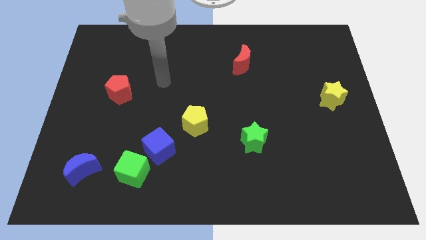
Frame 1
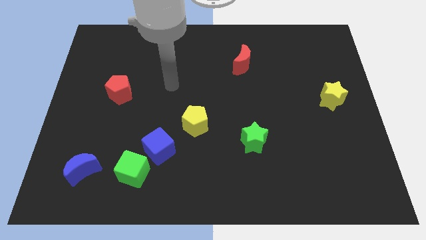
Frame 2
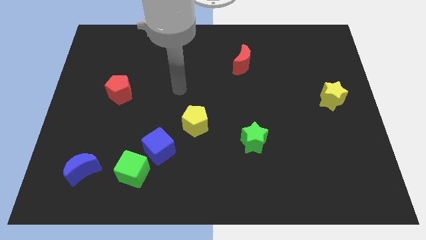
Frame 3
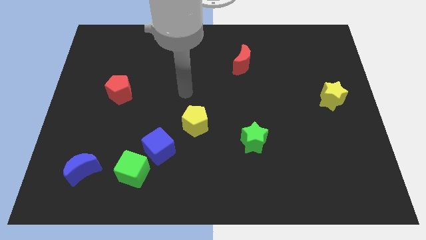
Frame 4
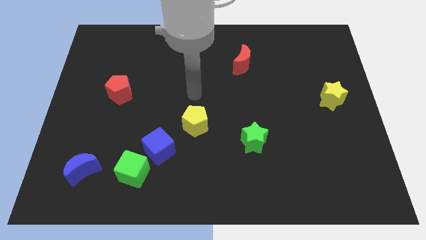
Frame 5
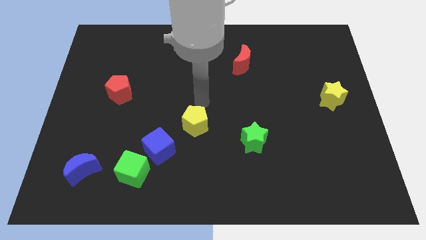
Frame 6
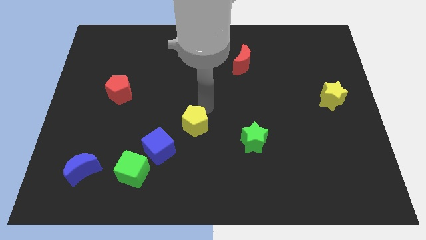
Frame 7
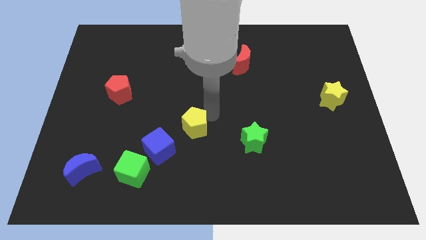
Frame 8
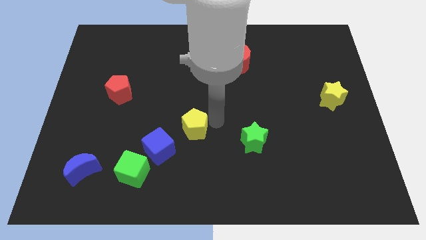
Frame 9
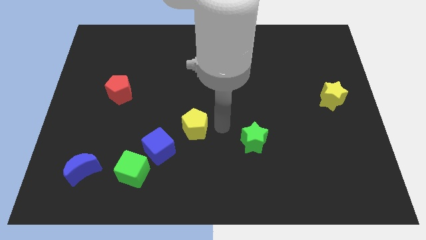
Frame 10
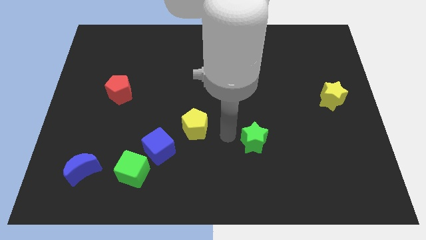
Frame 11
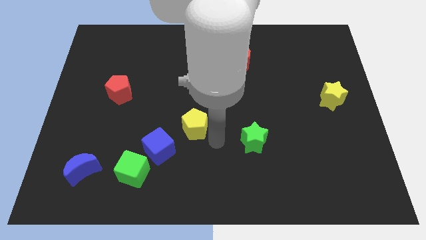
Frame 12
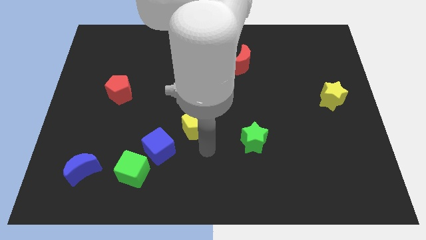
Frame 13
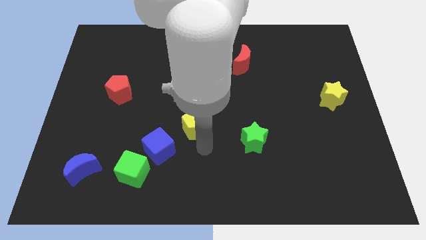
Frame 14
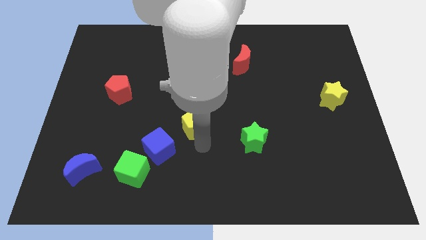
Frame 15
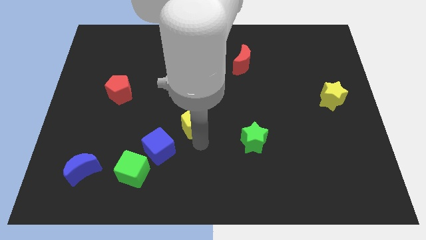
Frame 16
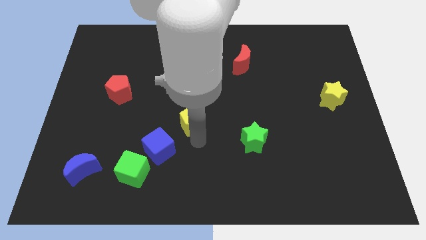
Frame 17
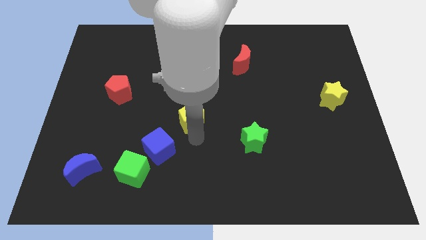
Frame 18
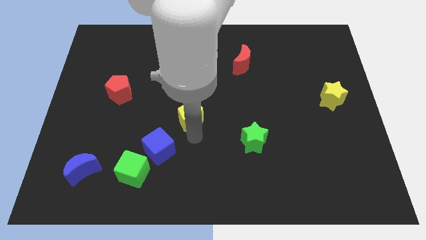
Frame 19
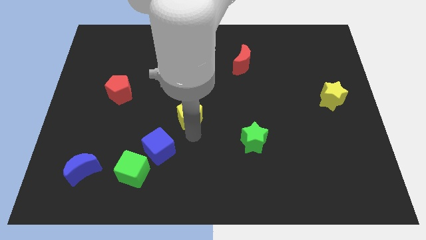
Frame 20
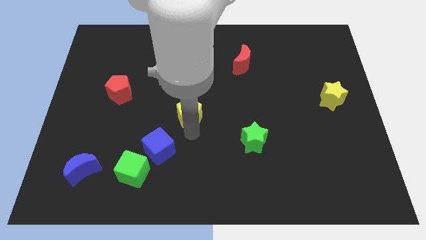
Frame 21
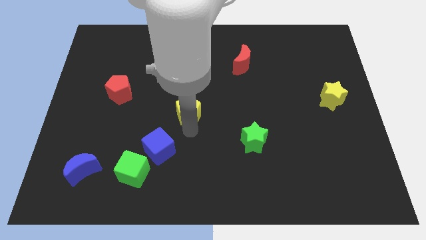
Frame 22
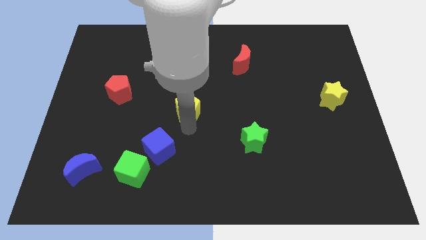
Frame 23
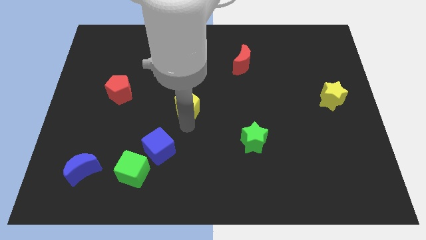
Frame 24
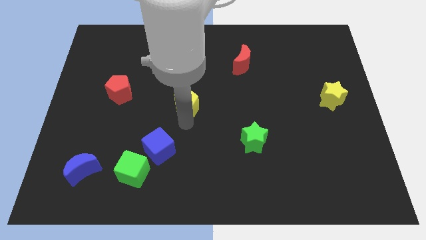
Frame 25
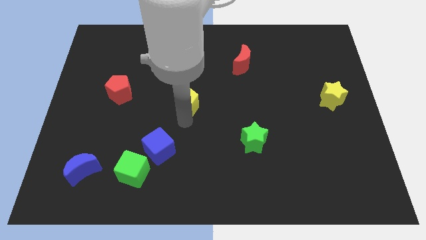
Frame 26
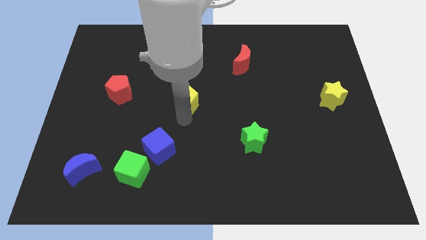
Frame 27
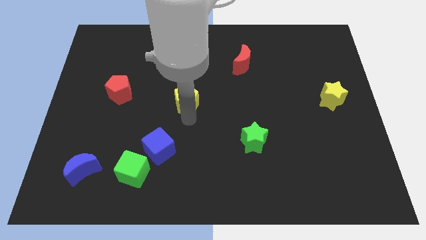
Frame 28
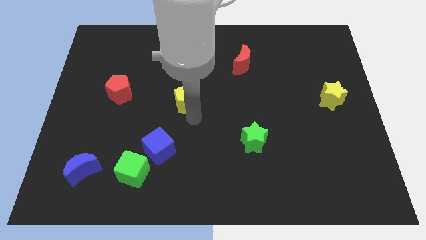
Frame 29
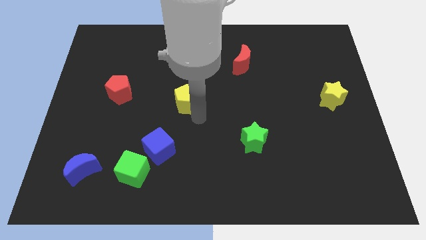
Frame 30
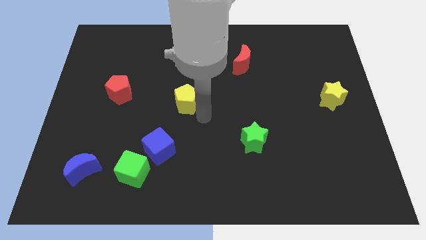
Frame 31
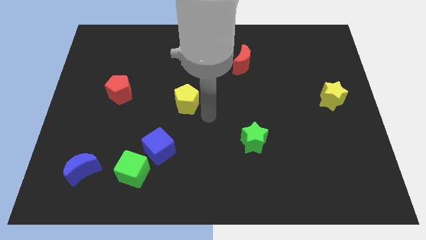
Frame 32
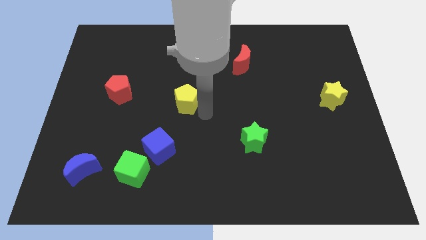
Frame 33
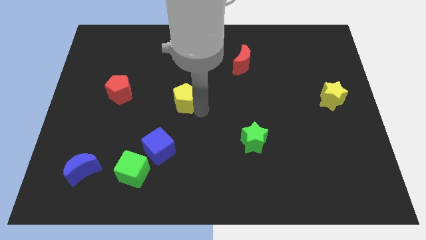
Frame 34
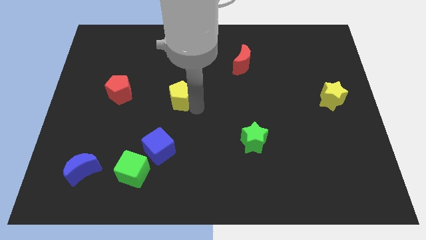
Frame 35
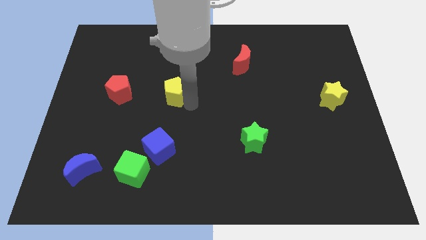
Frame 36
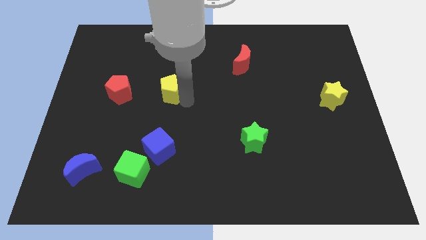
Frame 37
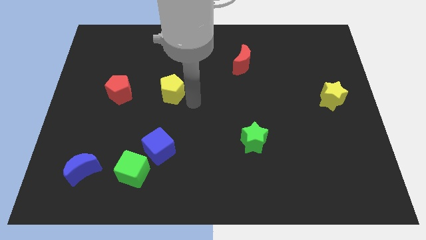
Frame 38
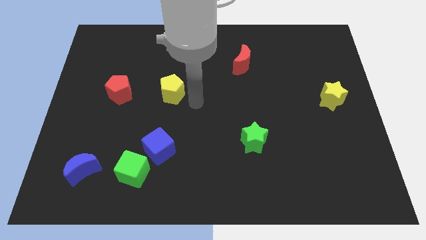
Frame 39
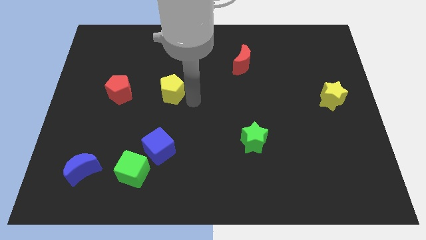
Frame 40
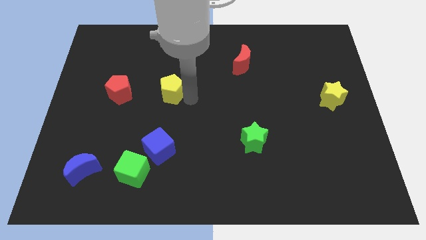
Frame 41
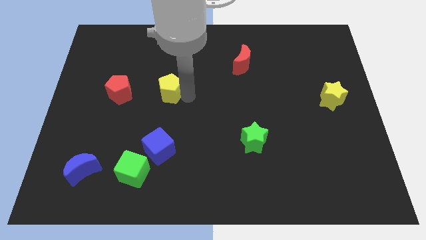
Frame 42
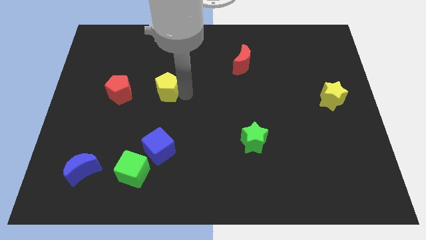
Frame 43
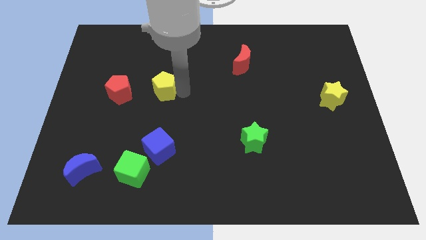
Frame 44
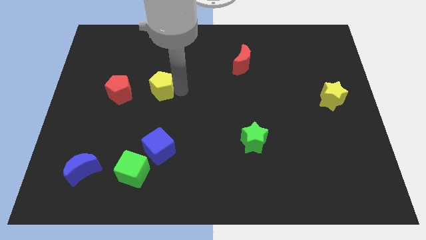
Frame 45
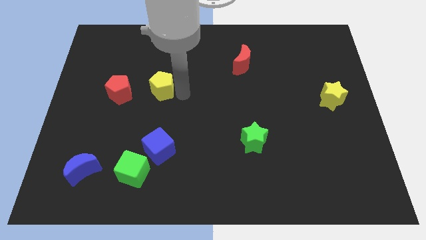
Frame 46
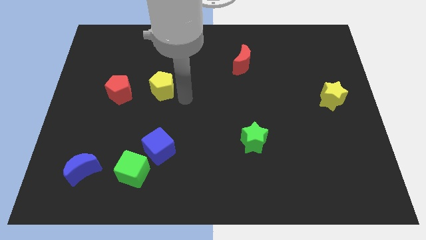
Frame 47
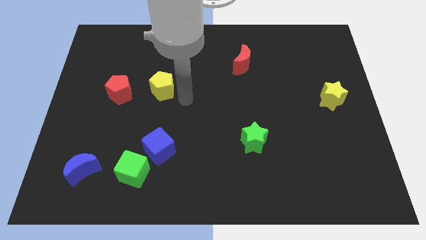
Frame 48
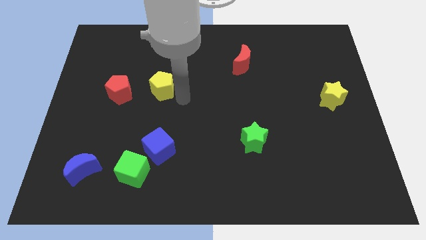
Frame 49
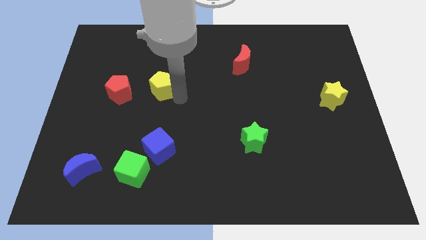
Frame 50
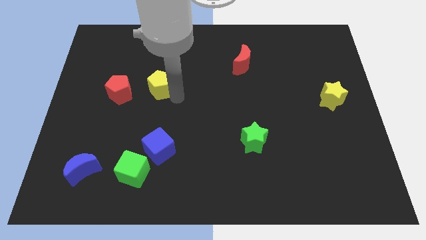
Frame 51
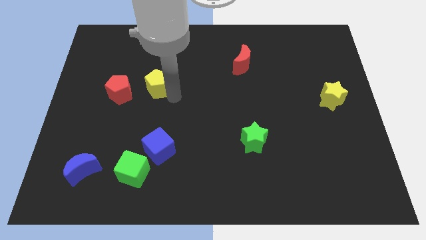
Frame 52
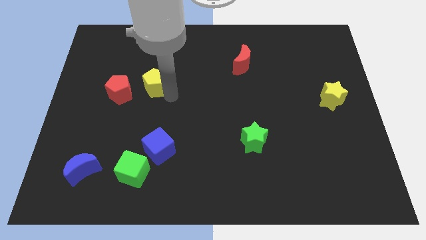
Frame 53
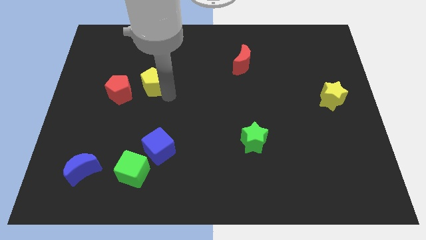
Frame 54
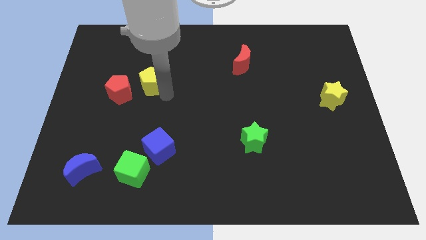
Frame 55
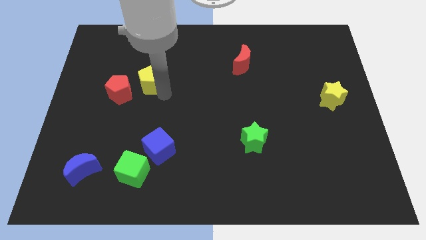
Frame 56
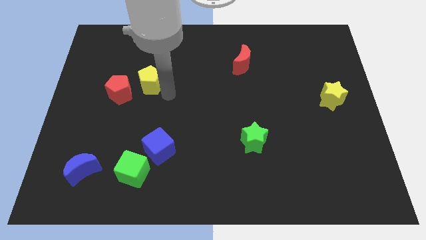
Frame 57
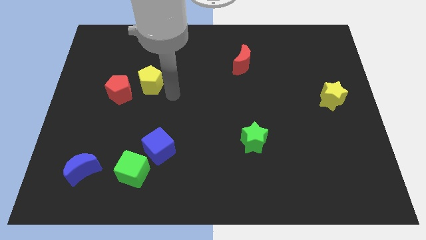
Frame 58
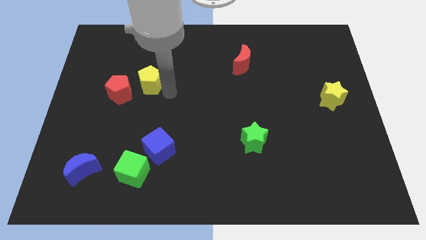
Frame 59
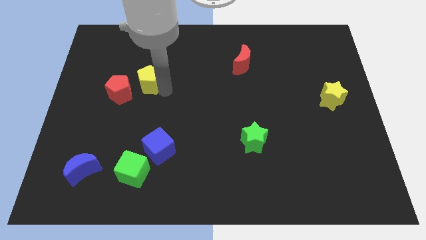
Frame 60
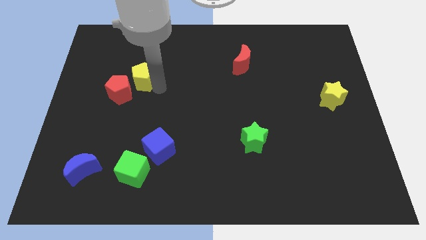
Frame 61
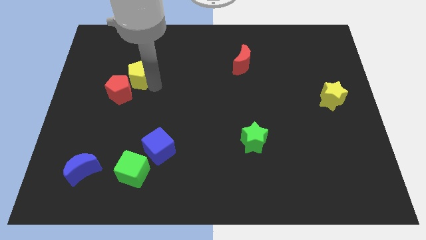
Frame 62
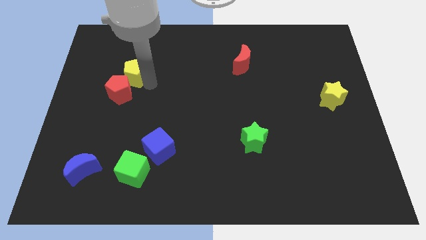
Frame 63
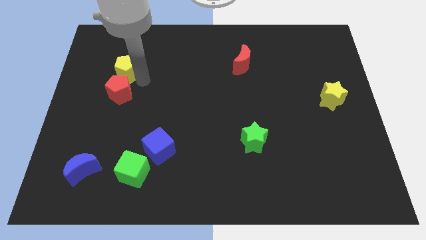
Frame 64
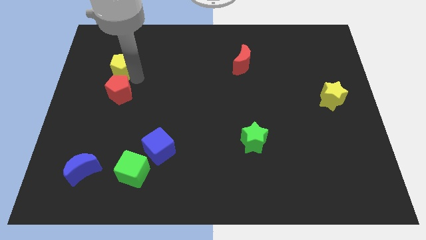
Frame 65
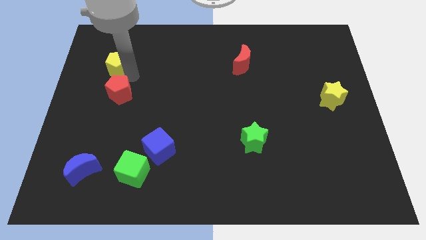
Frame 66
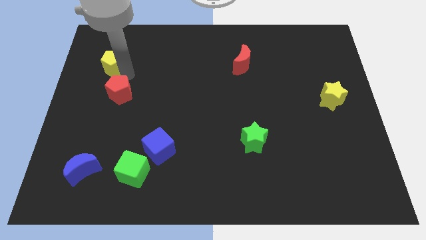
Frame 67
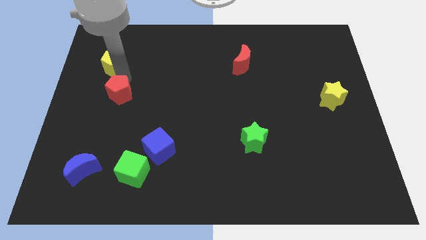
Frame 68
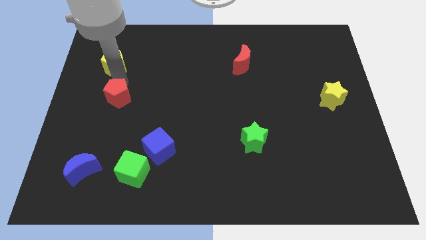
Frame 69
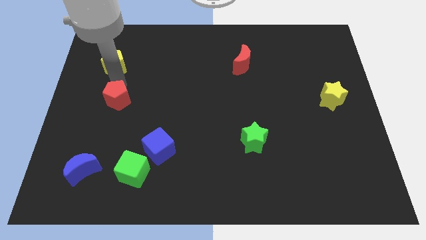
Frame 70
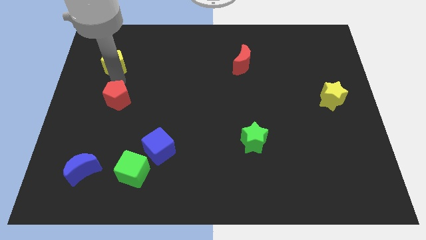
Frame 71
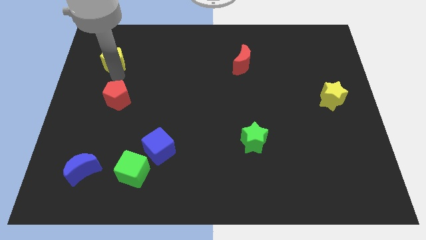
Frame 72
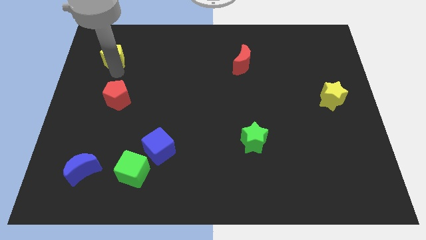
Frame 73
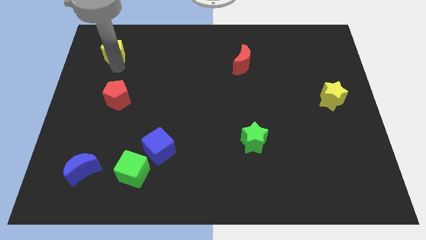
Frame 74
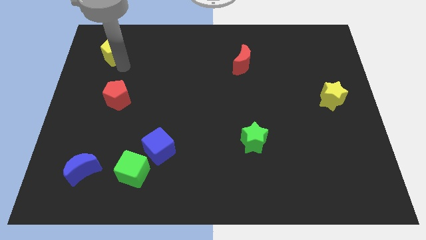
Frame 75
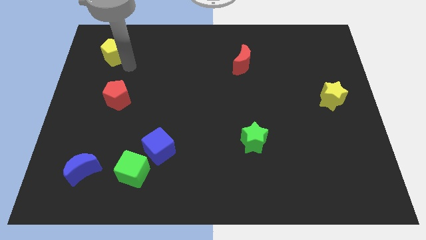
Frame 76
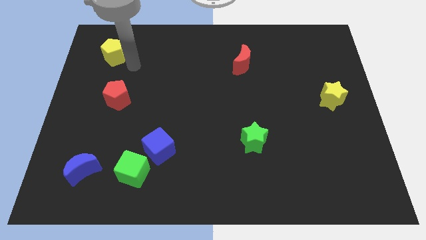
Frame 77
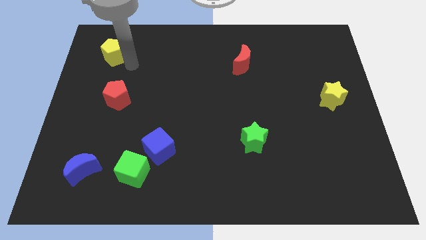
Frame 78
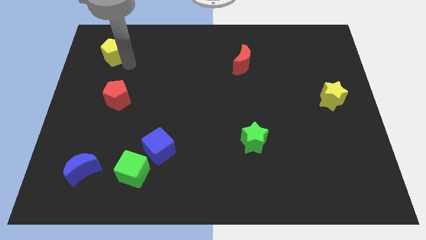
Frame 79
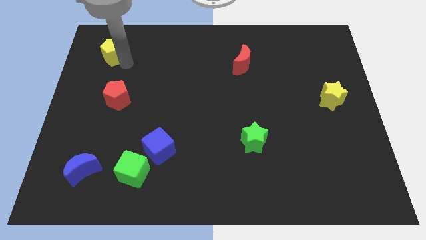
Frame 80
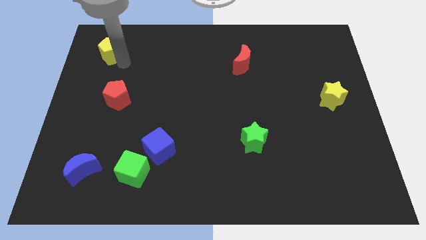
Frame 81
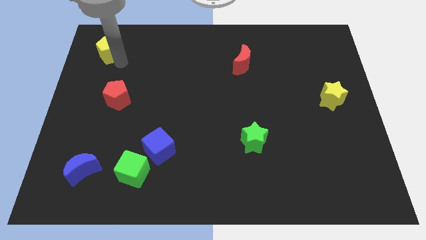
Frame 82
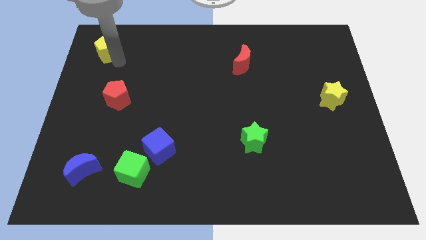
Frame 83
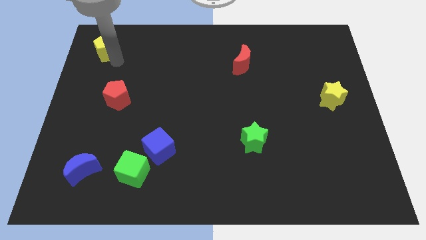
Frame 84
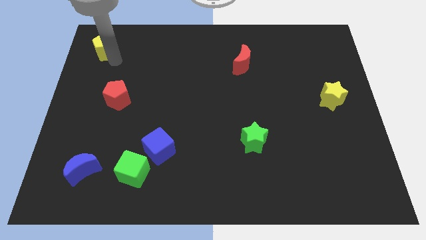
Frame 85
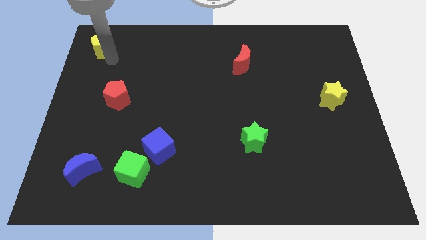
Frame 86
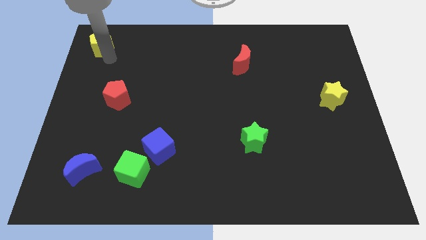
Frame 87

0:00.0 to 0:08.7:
move the yellow pentagon to the top left
